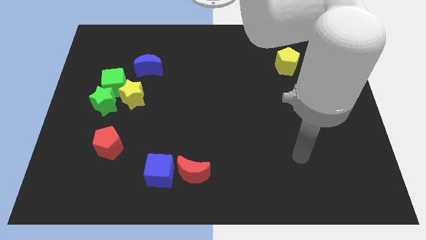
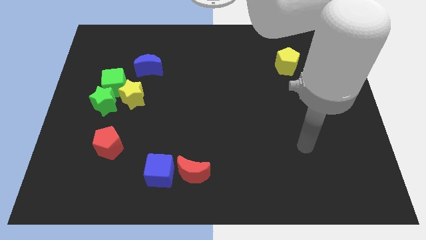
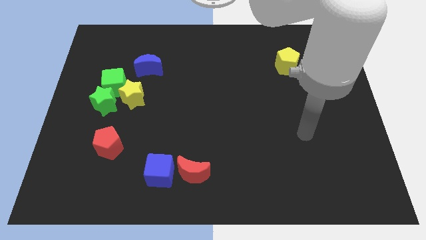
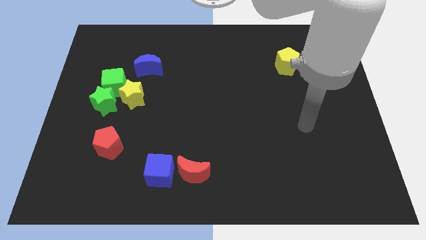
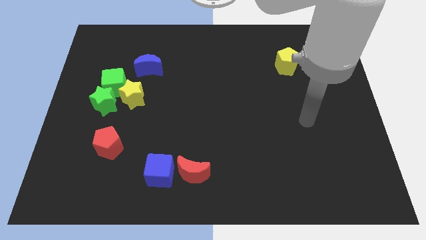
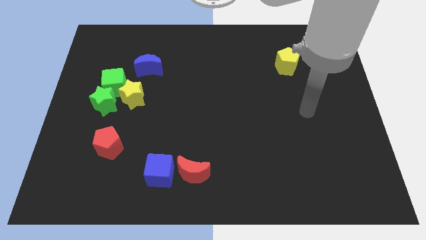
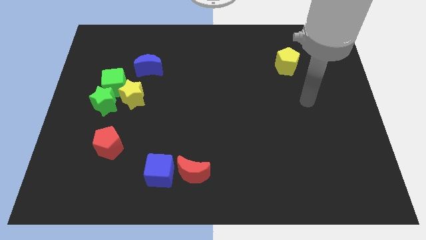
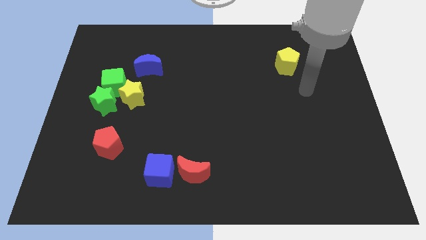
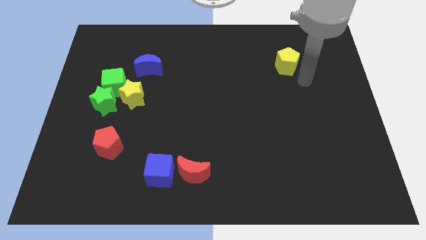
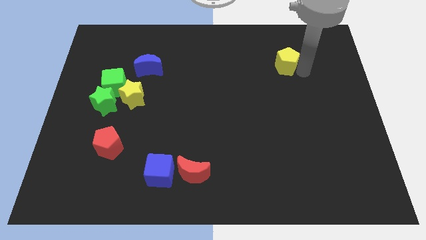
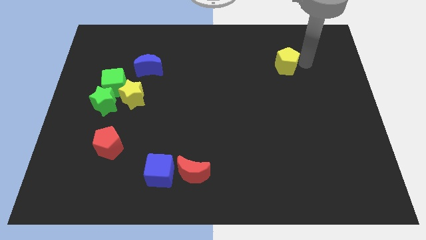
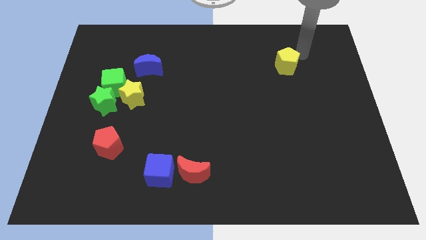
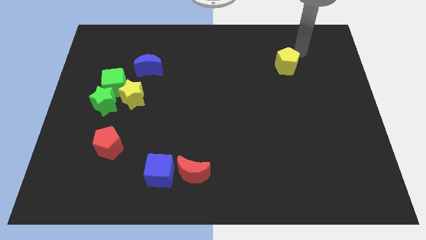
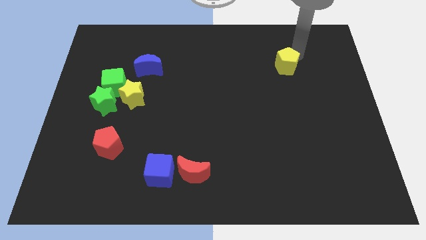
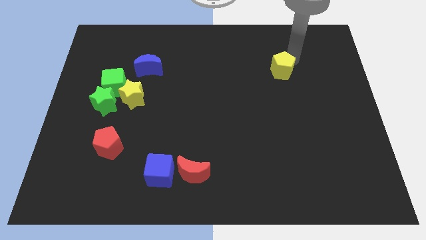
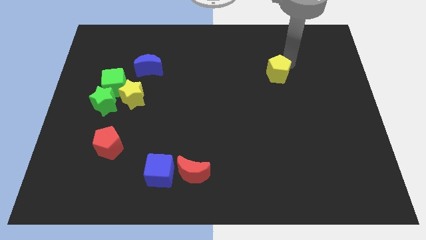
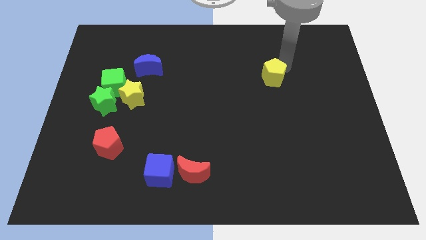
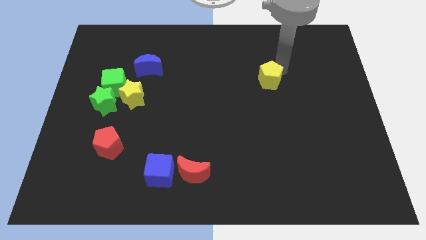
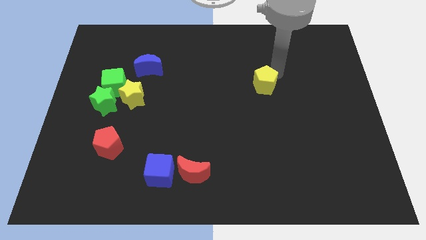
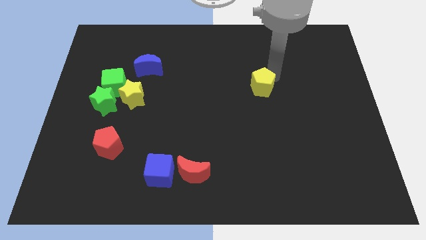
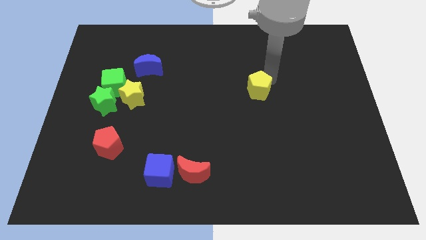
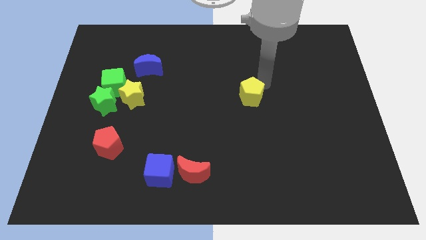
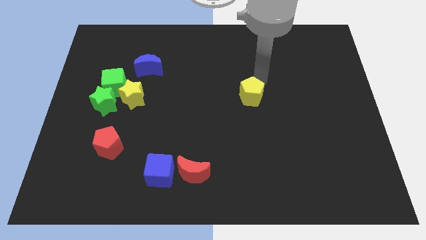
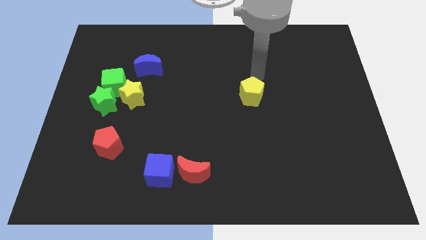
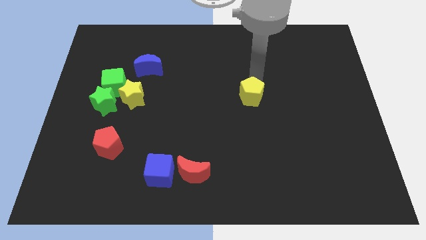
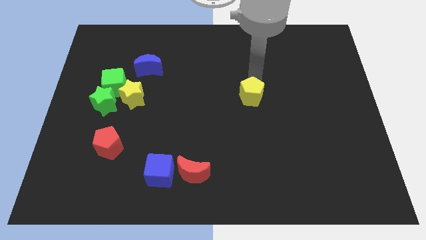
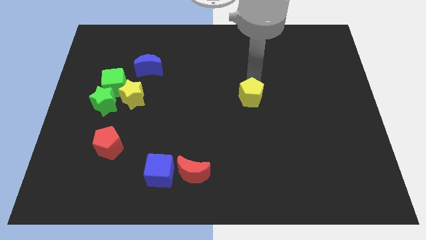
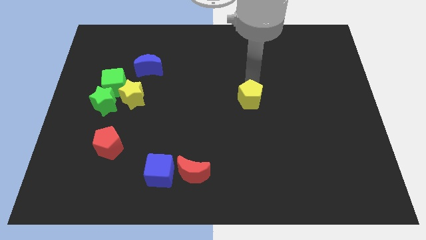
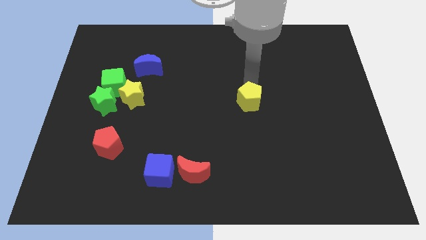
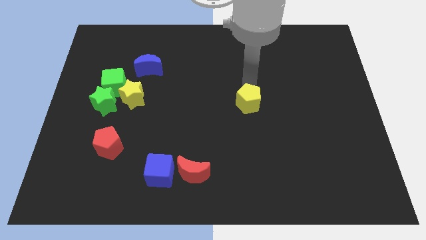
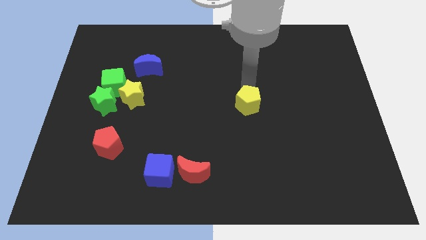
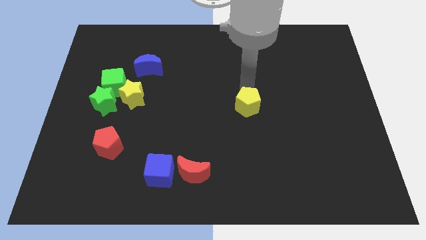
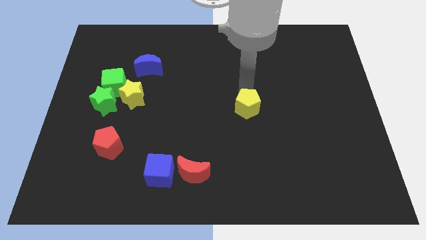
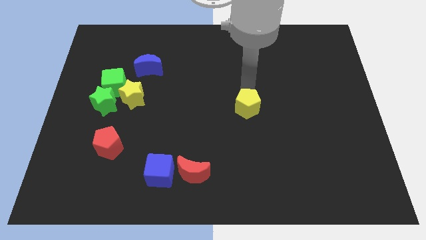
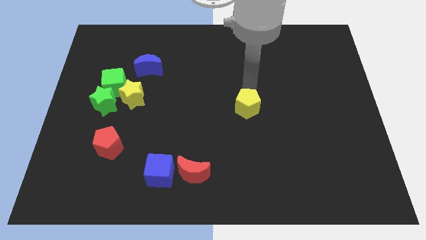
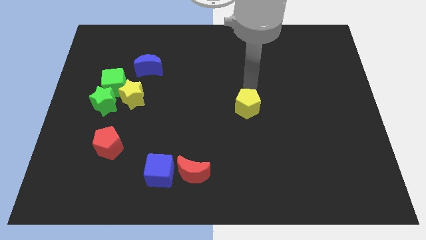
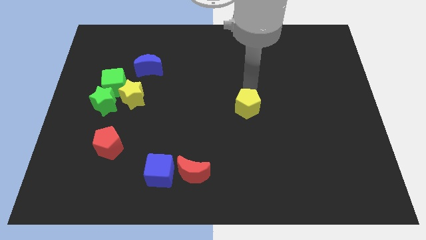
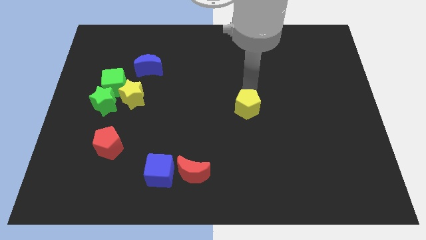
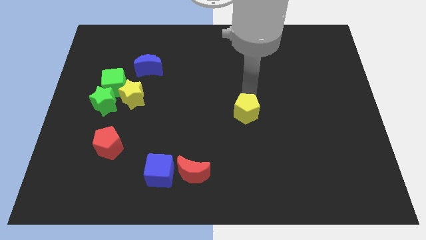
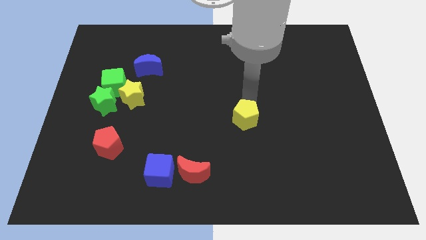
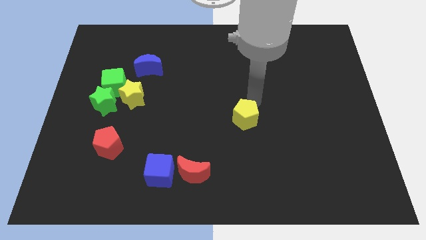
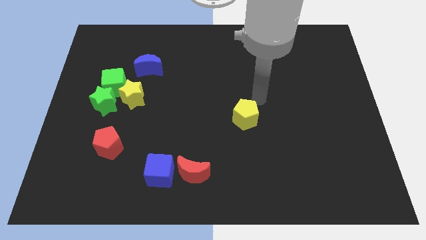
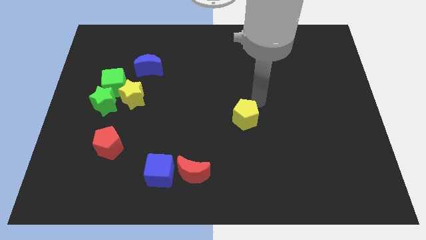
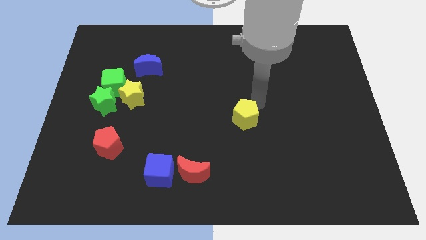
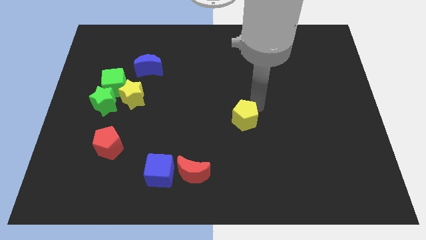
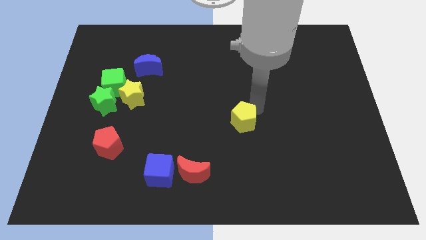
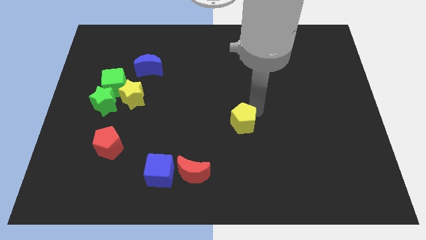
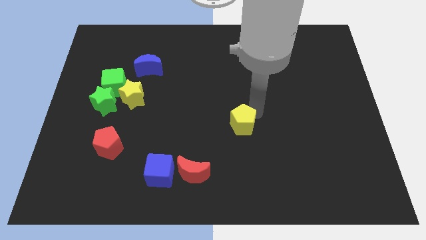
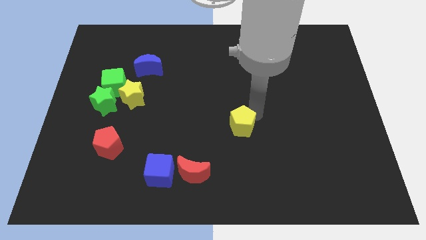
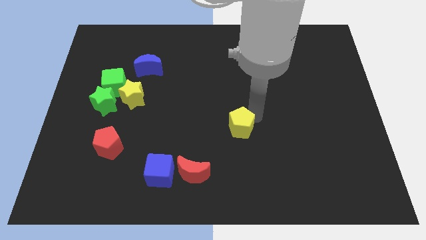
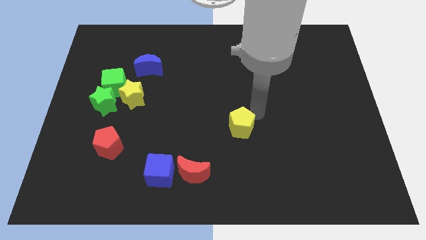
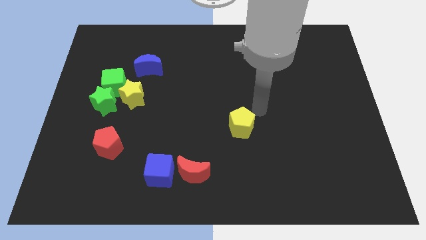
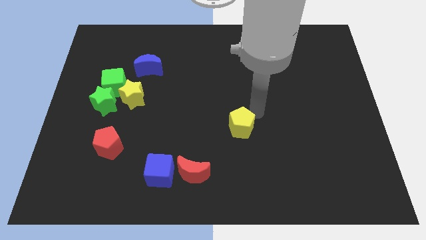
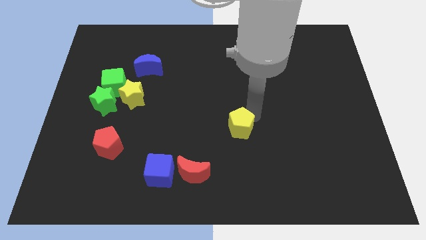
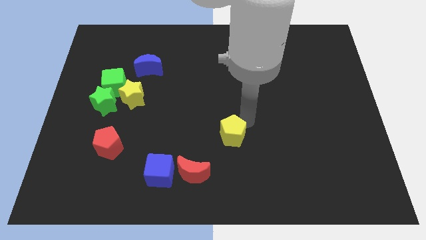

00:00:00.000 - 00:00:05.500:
move the yellow pentagon to the top right side of the red moon
